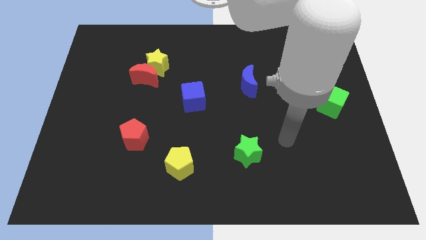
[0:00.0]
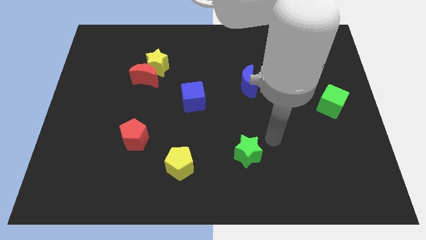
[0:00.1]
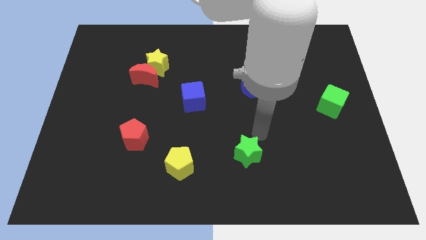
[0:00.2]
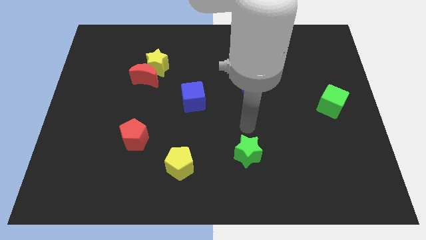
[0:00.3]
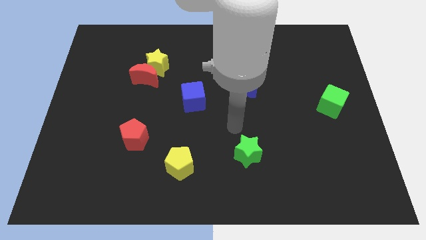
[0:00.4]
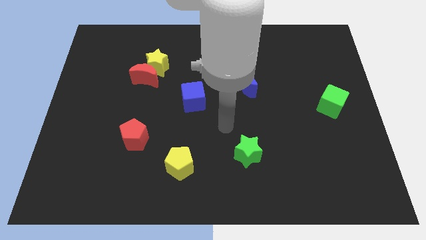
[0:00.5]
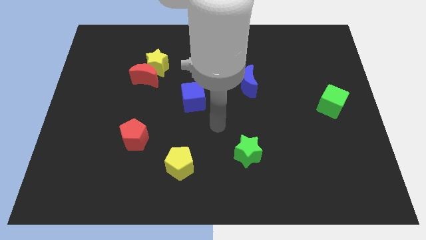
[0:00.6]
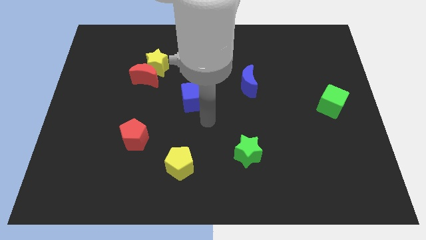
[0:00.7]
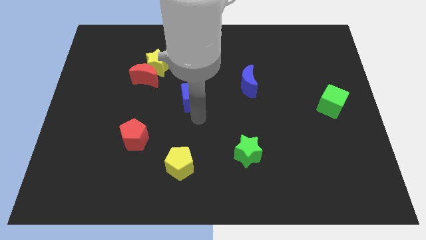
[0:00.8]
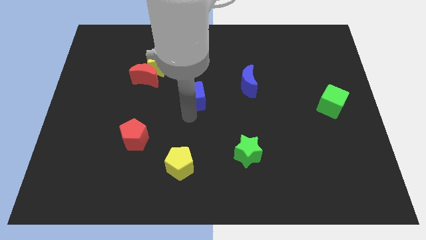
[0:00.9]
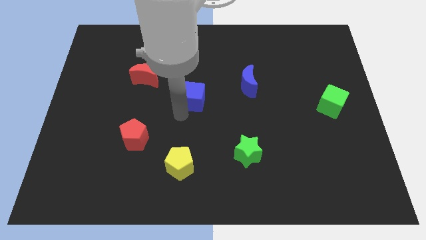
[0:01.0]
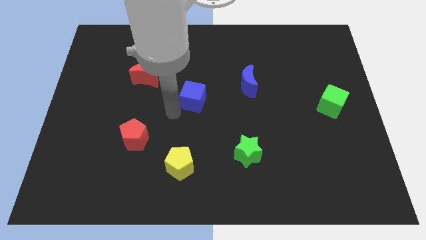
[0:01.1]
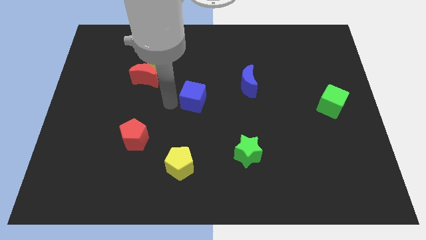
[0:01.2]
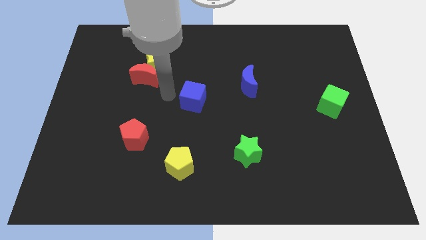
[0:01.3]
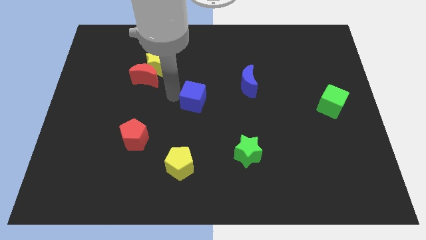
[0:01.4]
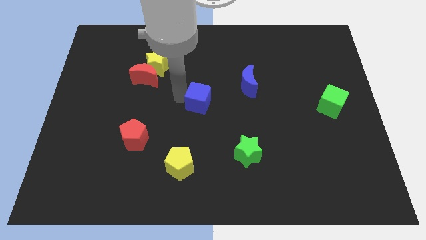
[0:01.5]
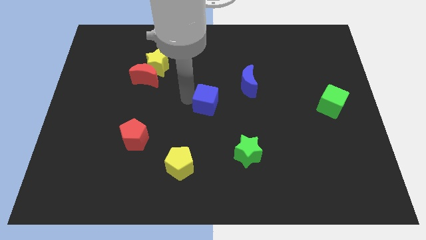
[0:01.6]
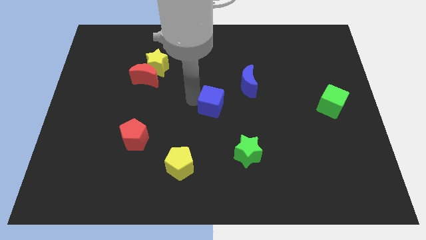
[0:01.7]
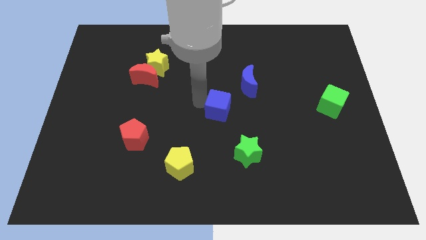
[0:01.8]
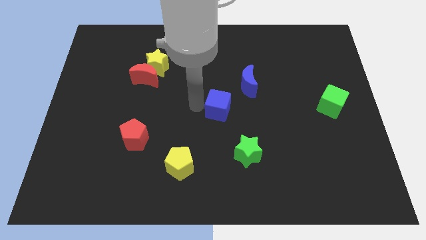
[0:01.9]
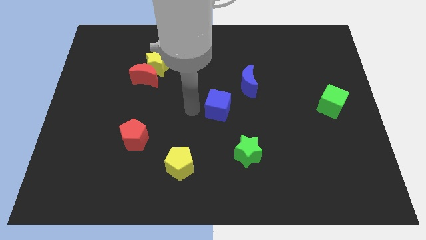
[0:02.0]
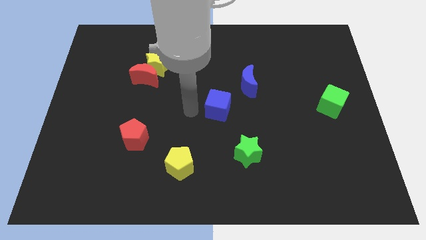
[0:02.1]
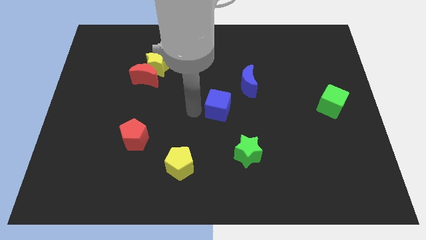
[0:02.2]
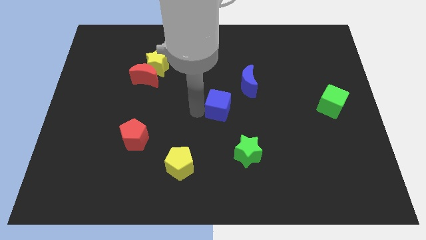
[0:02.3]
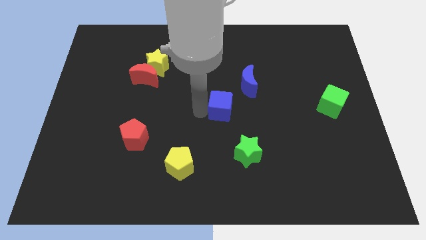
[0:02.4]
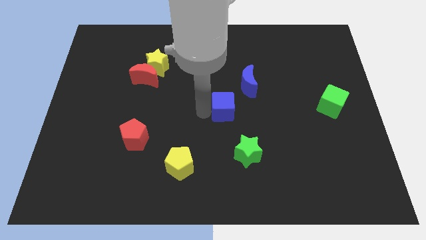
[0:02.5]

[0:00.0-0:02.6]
push the blue cube a bit to the right

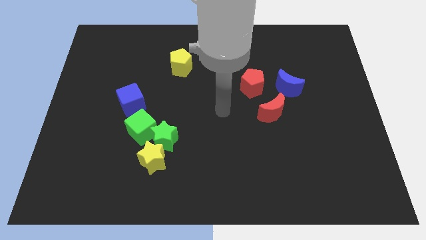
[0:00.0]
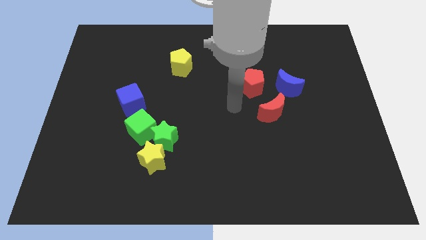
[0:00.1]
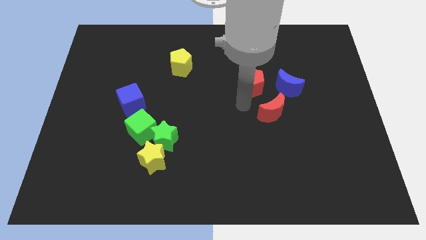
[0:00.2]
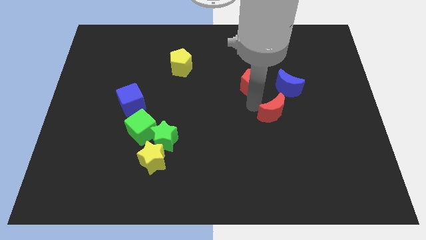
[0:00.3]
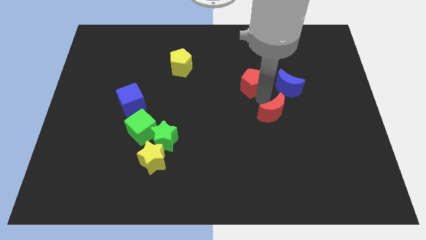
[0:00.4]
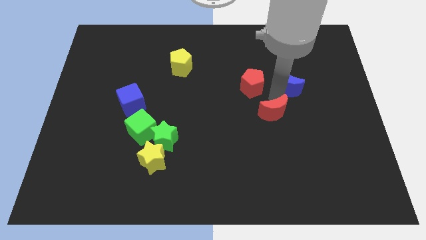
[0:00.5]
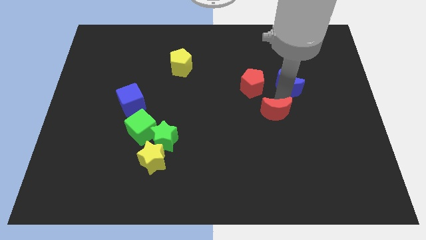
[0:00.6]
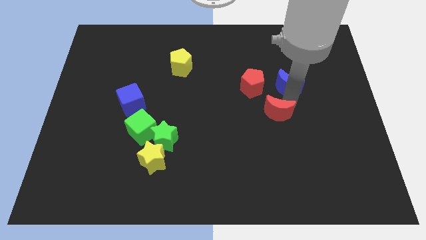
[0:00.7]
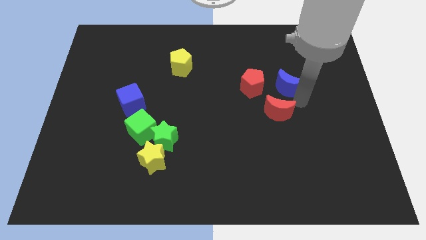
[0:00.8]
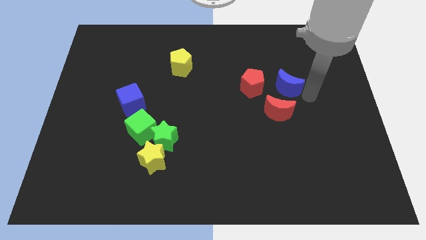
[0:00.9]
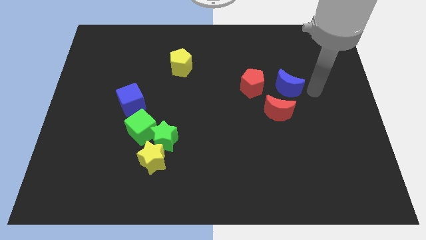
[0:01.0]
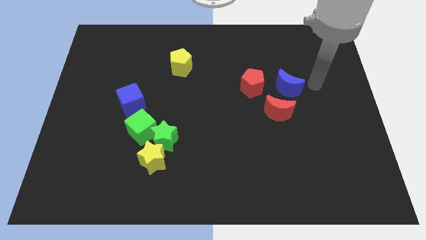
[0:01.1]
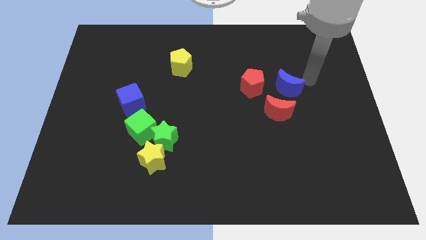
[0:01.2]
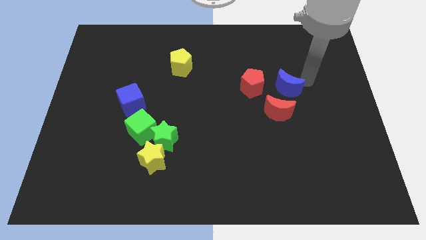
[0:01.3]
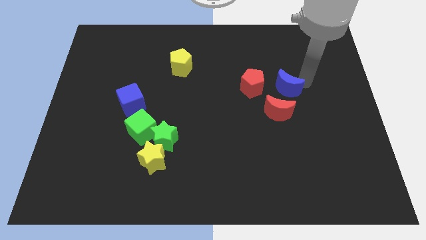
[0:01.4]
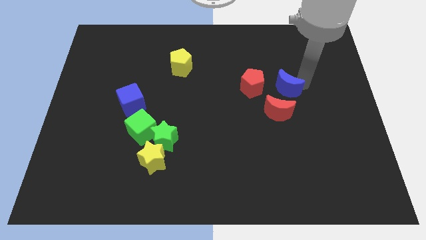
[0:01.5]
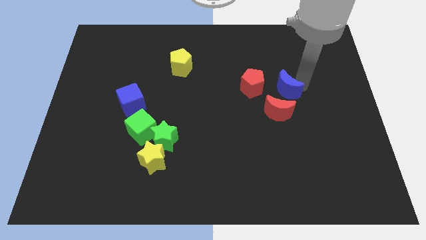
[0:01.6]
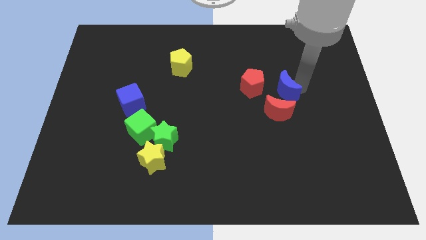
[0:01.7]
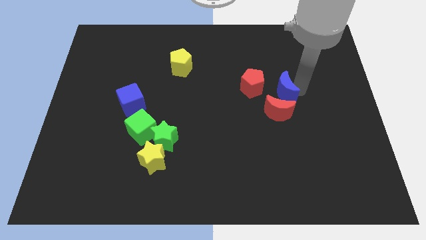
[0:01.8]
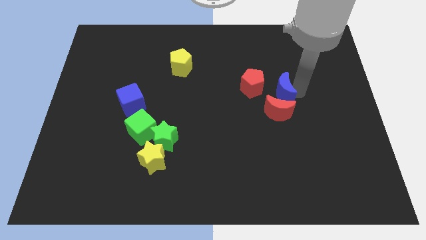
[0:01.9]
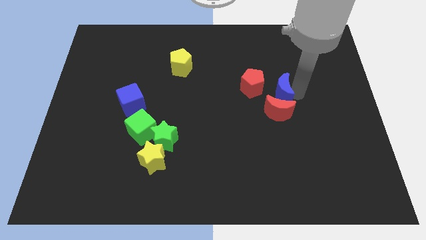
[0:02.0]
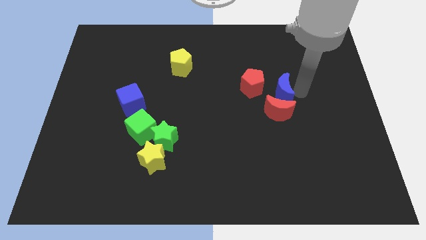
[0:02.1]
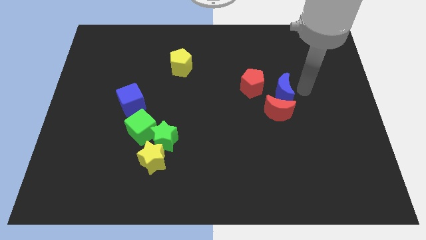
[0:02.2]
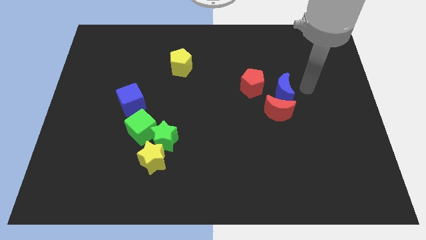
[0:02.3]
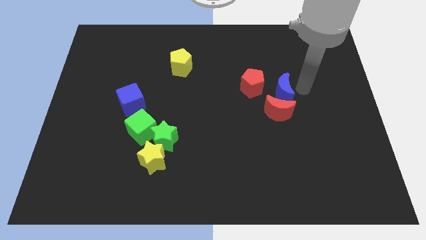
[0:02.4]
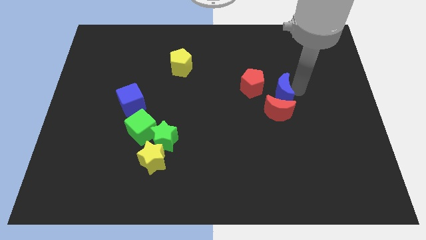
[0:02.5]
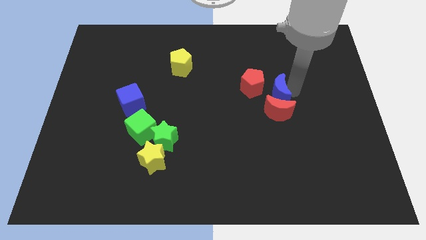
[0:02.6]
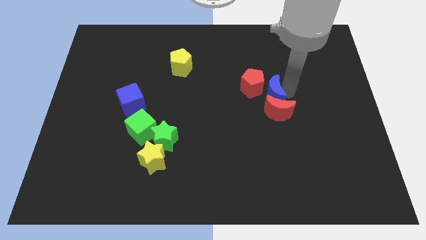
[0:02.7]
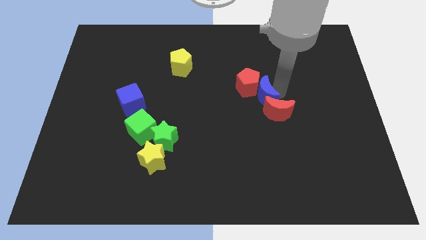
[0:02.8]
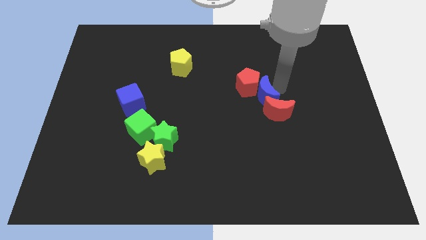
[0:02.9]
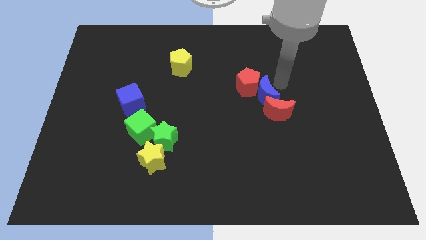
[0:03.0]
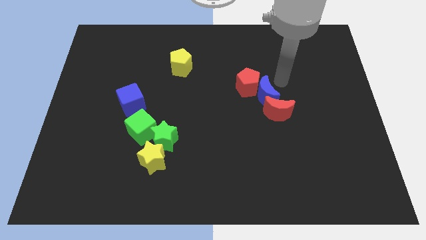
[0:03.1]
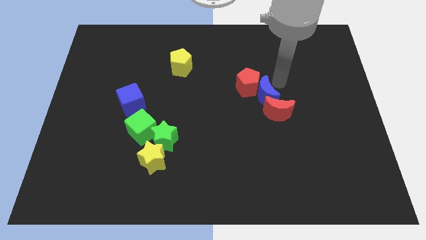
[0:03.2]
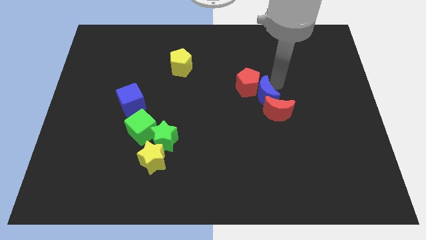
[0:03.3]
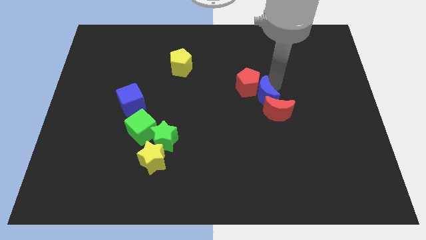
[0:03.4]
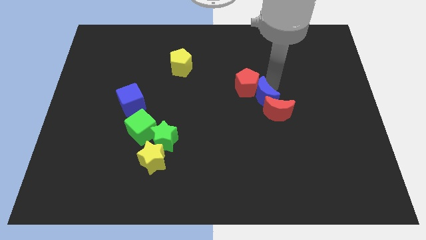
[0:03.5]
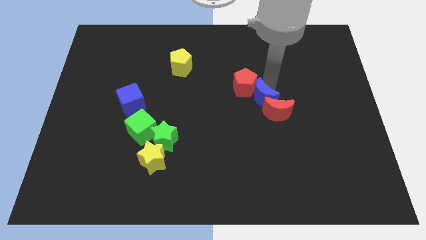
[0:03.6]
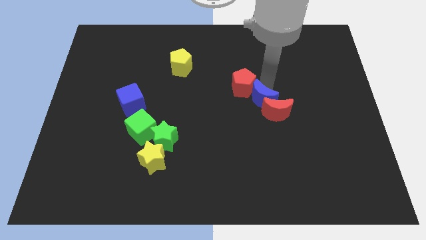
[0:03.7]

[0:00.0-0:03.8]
push the blue moon down and left diagonally slightly

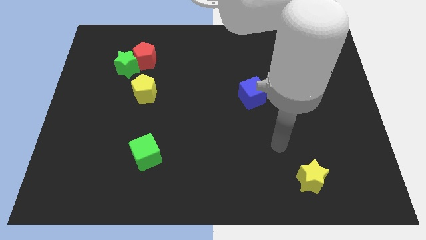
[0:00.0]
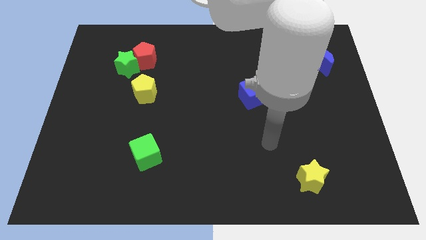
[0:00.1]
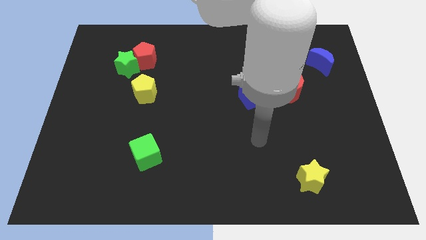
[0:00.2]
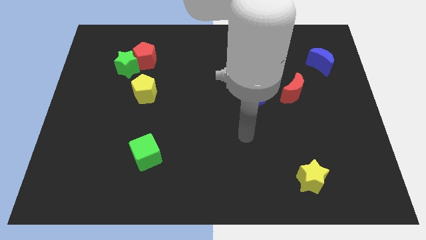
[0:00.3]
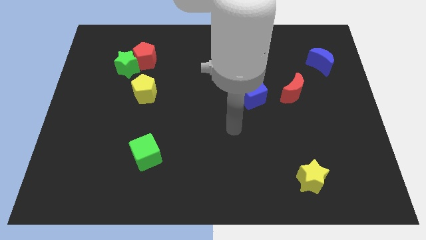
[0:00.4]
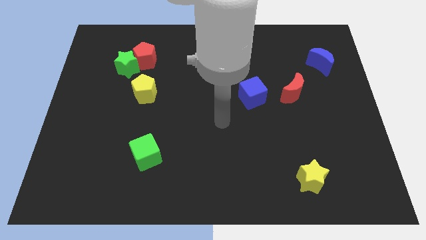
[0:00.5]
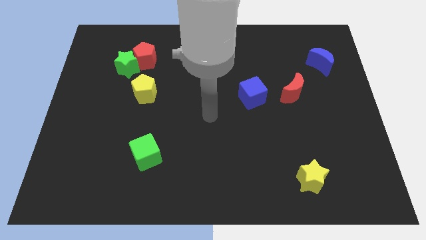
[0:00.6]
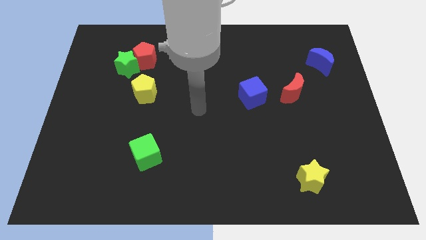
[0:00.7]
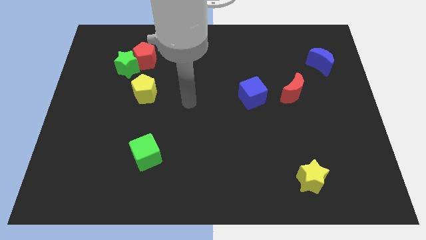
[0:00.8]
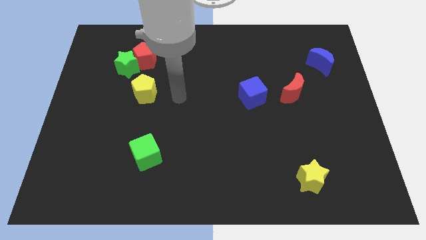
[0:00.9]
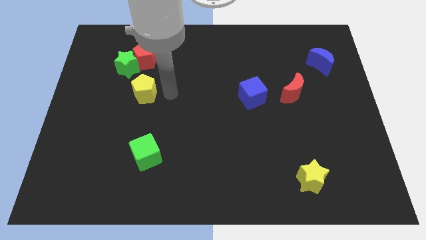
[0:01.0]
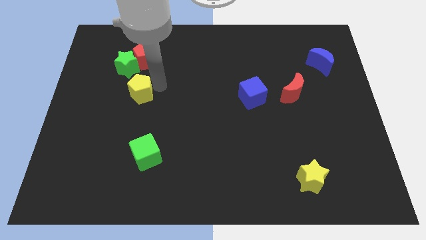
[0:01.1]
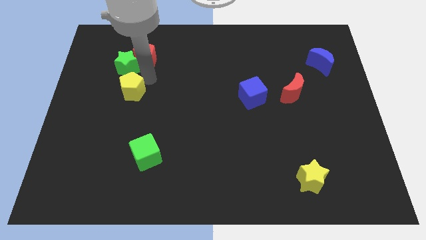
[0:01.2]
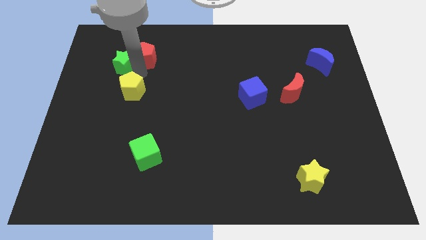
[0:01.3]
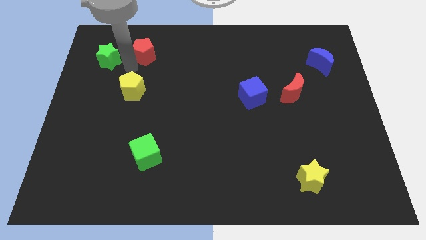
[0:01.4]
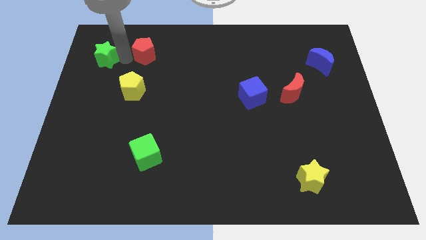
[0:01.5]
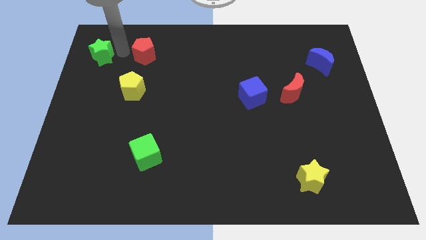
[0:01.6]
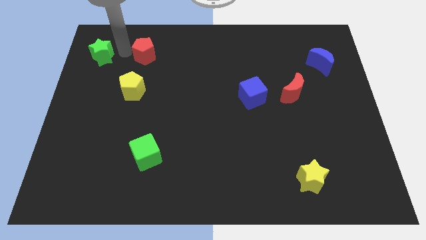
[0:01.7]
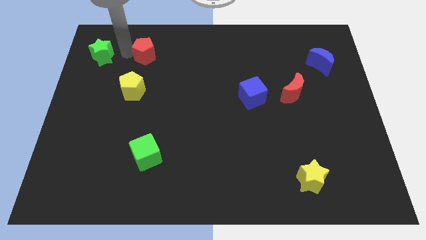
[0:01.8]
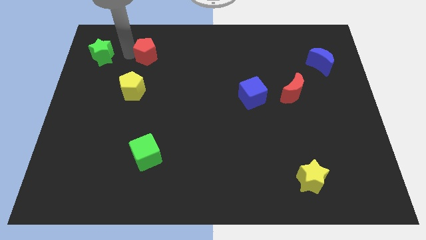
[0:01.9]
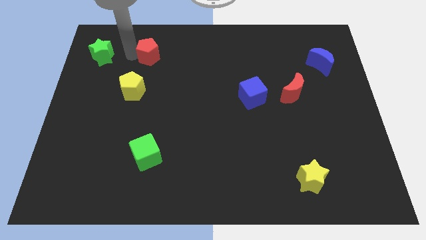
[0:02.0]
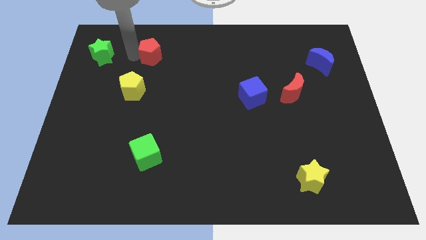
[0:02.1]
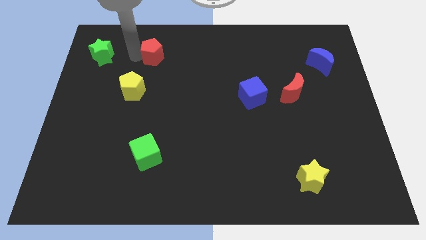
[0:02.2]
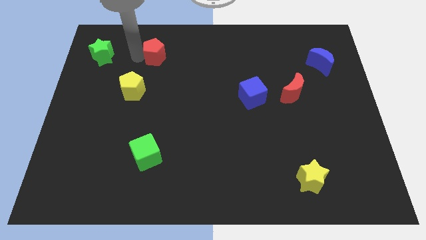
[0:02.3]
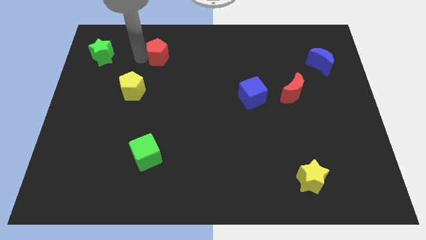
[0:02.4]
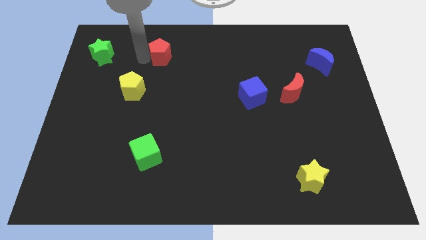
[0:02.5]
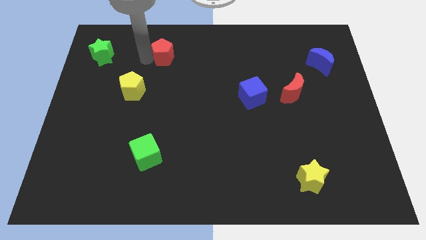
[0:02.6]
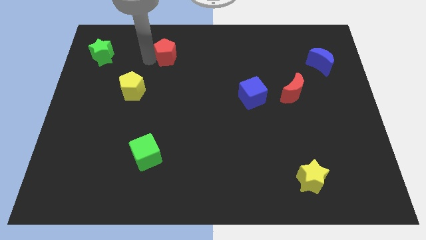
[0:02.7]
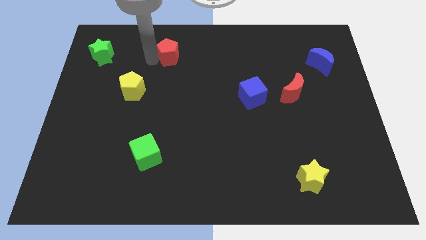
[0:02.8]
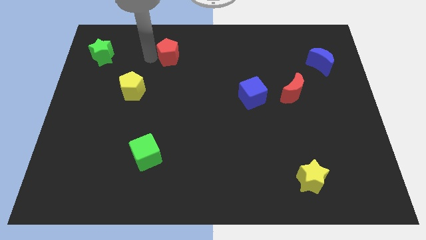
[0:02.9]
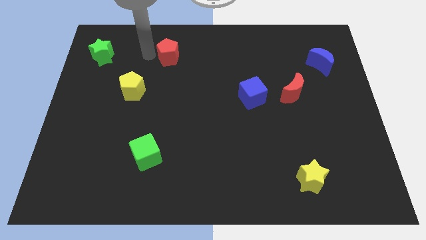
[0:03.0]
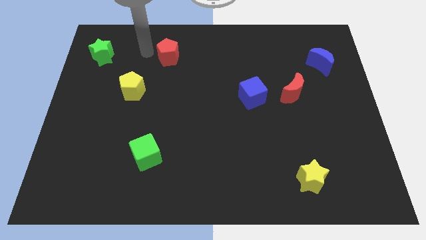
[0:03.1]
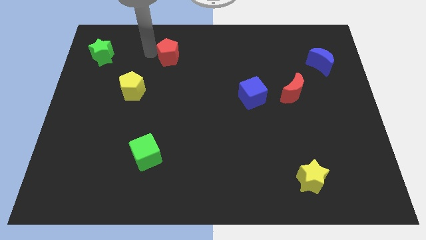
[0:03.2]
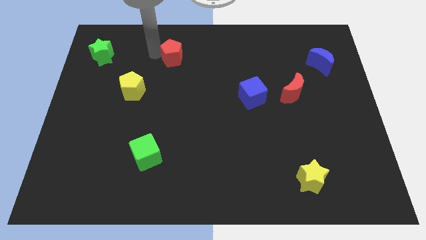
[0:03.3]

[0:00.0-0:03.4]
slide the red pentagon to the right slightly
